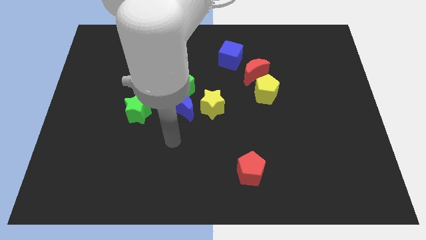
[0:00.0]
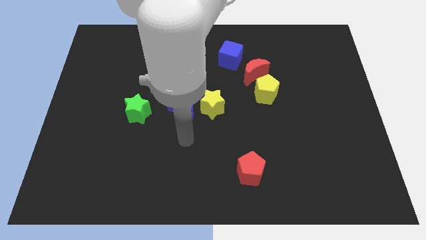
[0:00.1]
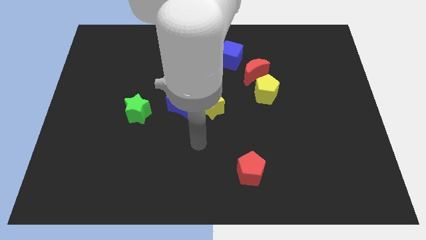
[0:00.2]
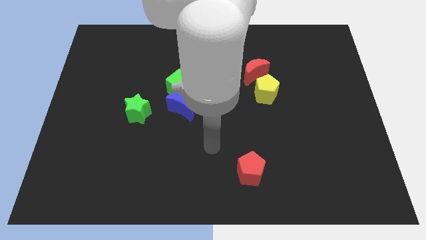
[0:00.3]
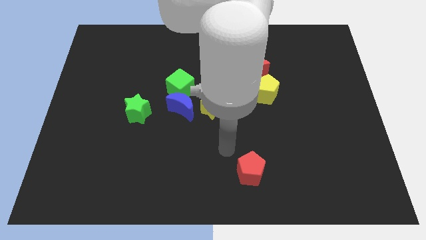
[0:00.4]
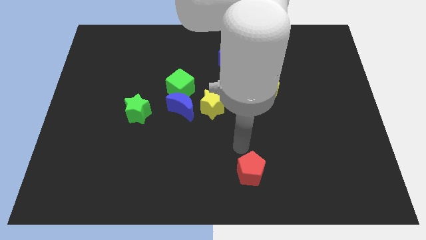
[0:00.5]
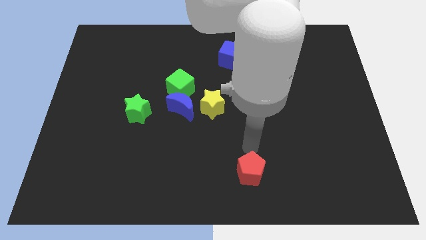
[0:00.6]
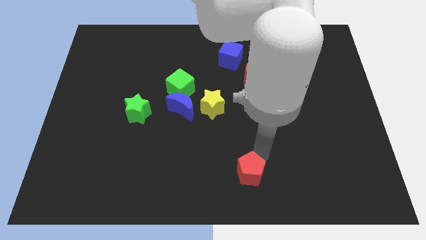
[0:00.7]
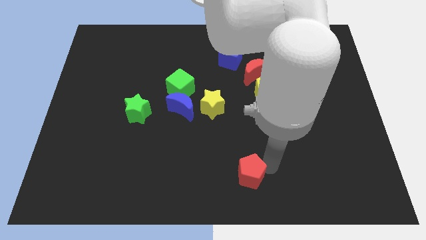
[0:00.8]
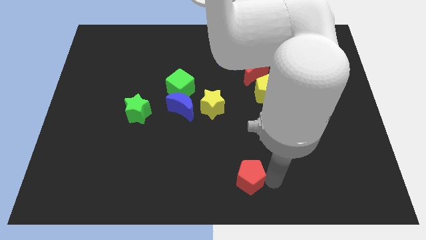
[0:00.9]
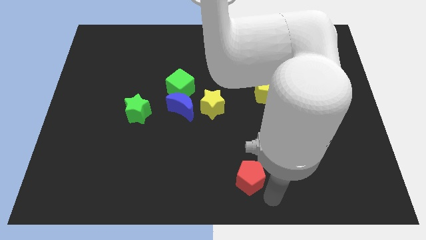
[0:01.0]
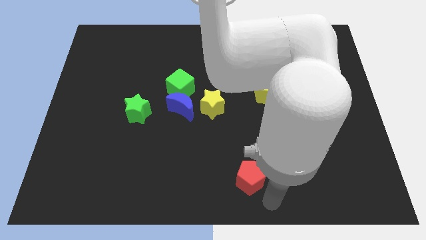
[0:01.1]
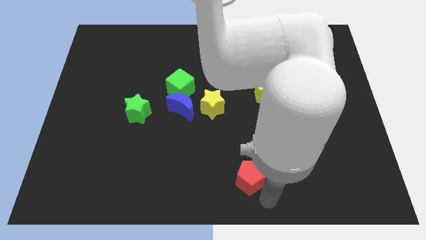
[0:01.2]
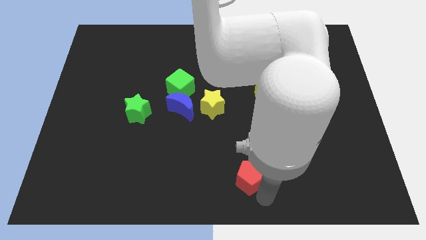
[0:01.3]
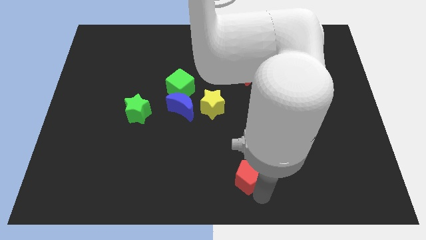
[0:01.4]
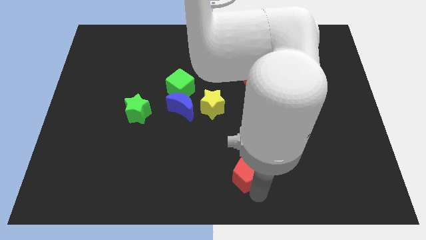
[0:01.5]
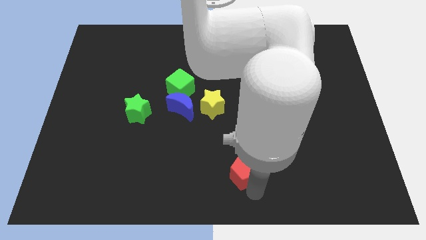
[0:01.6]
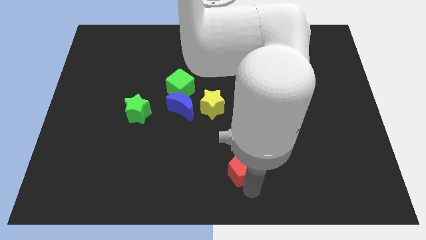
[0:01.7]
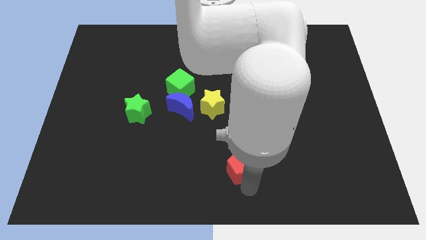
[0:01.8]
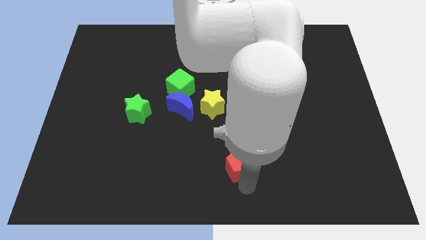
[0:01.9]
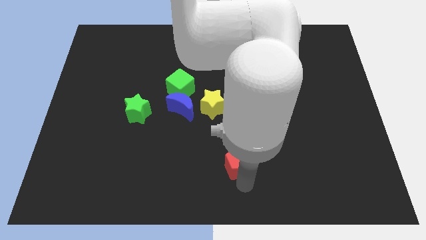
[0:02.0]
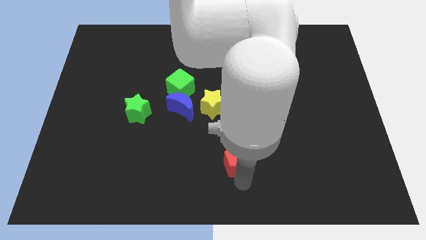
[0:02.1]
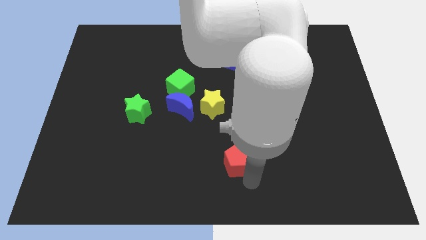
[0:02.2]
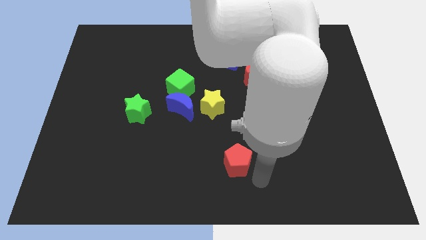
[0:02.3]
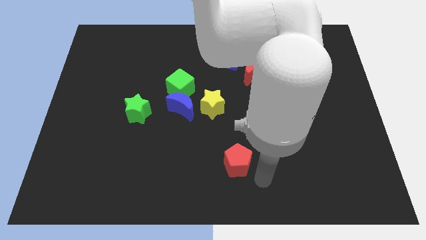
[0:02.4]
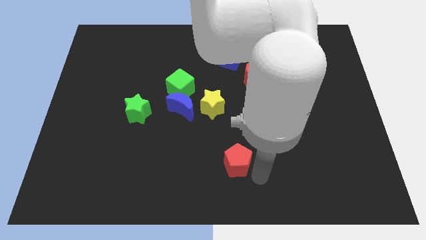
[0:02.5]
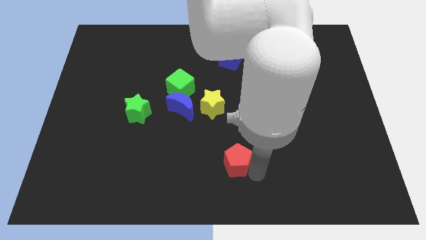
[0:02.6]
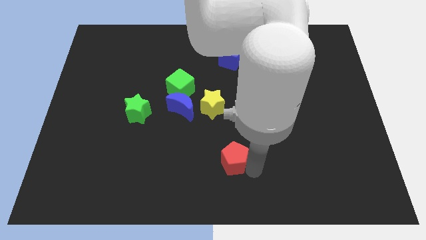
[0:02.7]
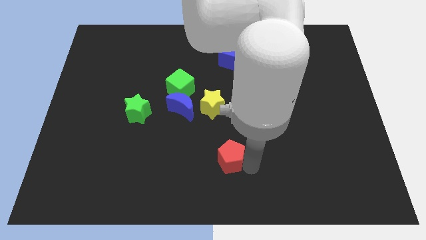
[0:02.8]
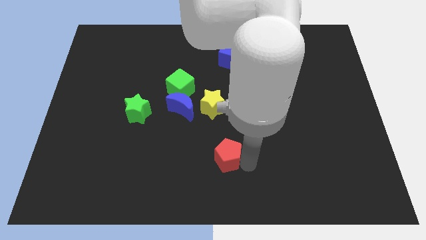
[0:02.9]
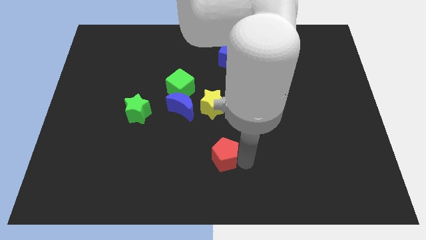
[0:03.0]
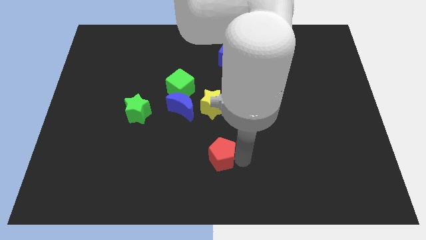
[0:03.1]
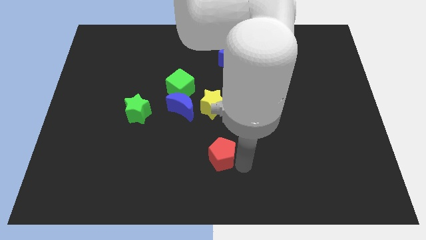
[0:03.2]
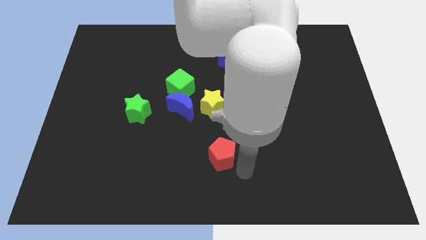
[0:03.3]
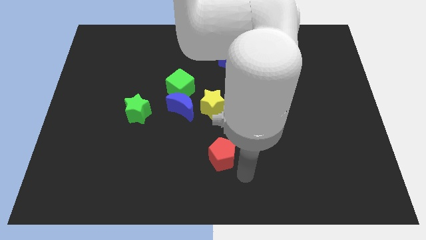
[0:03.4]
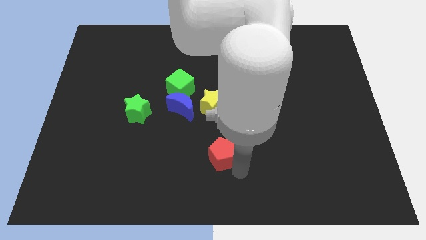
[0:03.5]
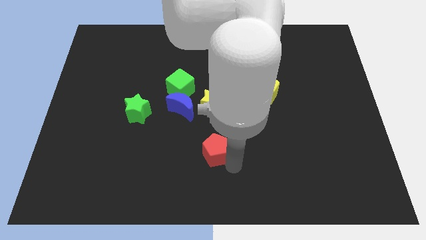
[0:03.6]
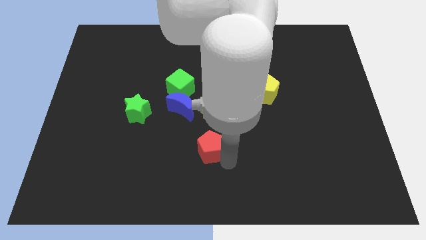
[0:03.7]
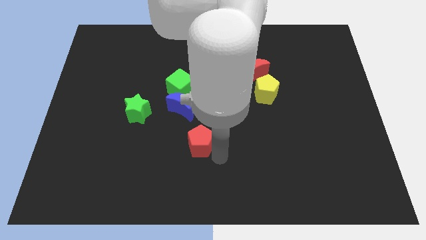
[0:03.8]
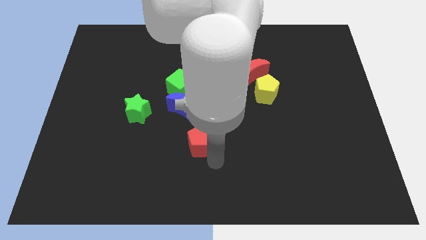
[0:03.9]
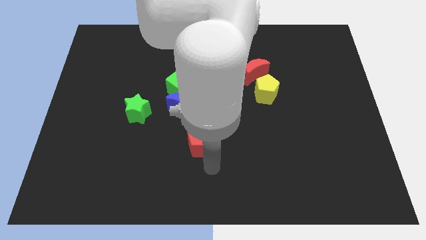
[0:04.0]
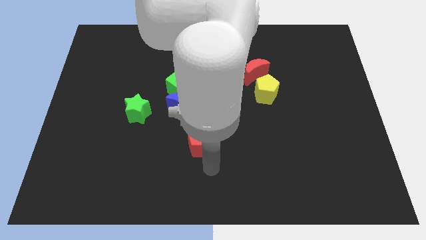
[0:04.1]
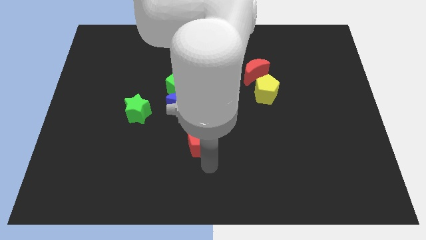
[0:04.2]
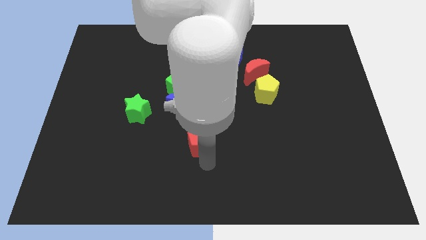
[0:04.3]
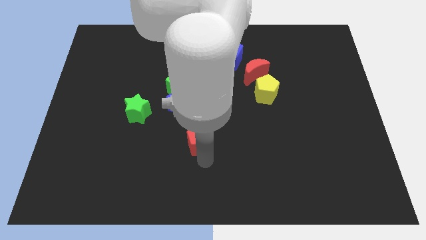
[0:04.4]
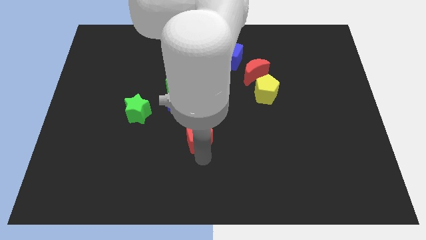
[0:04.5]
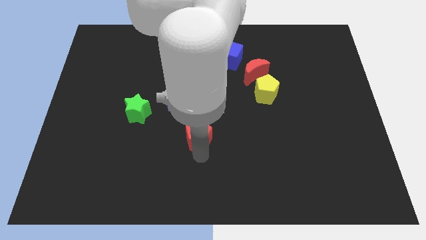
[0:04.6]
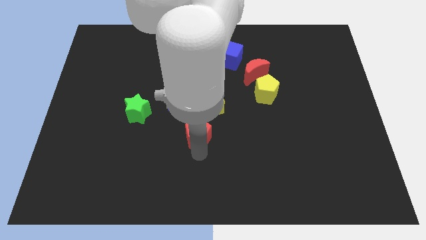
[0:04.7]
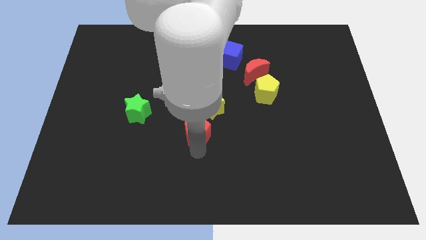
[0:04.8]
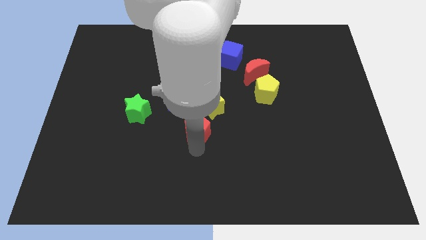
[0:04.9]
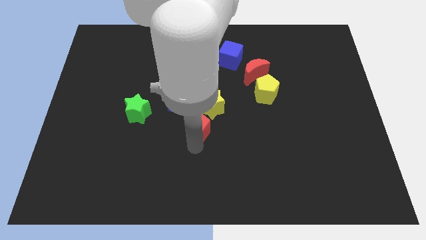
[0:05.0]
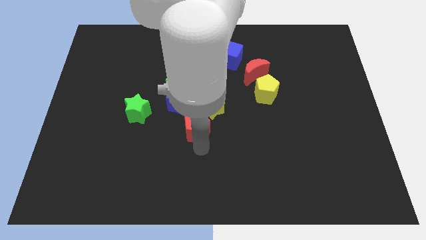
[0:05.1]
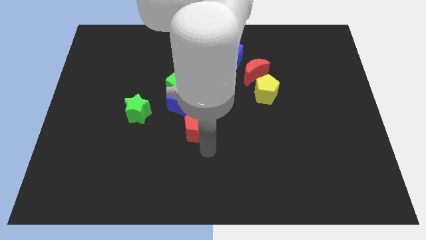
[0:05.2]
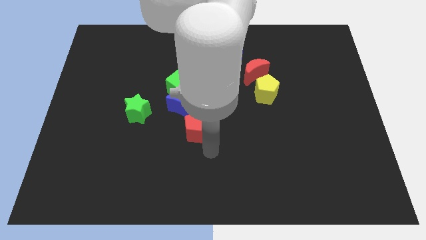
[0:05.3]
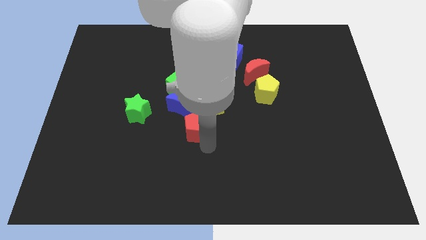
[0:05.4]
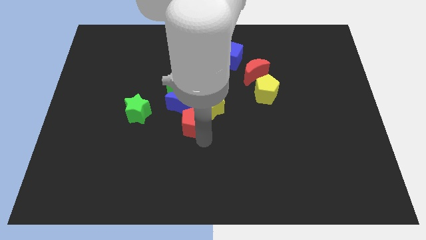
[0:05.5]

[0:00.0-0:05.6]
put the red pentagon close to the blue moon

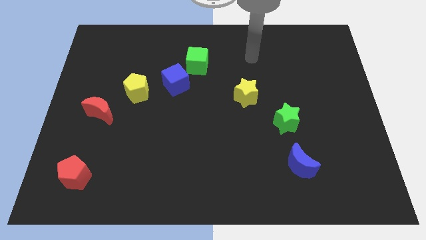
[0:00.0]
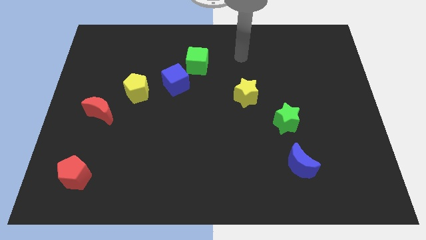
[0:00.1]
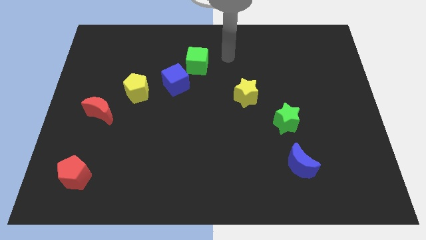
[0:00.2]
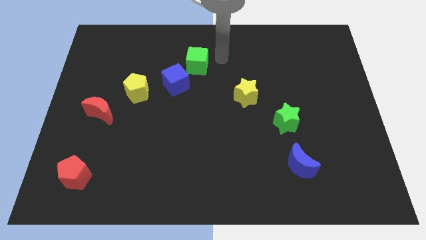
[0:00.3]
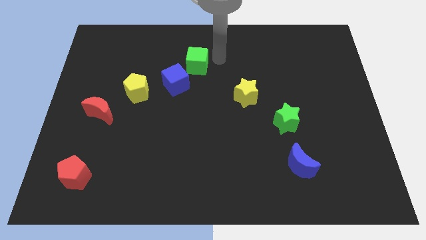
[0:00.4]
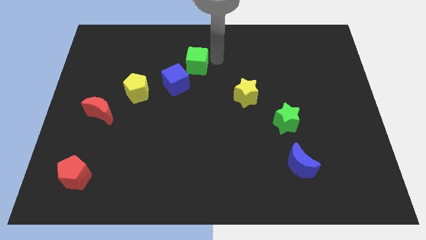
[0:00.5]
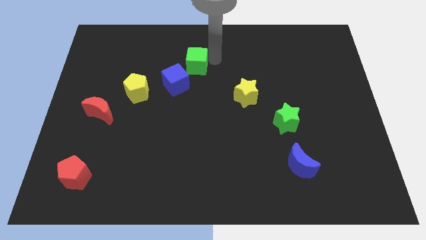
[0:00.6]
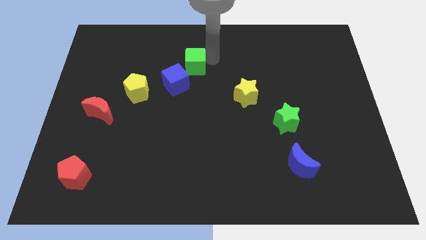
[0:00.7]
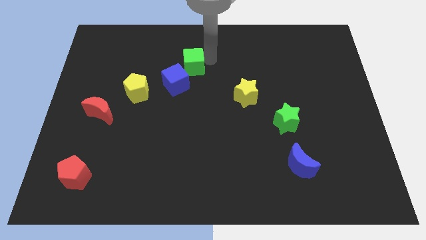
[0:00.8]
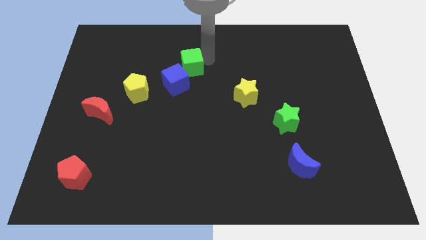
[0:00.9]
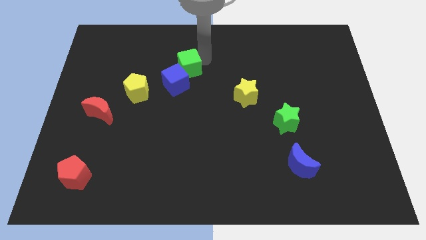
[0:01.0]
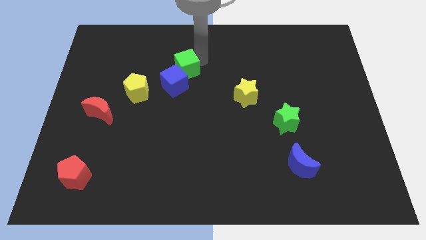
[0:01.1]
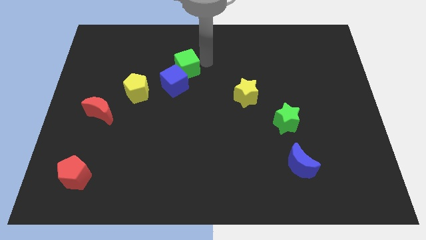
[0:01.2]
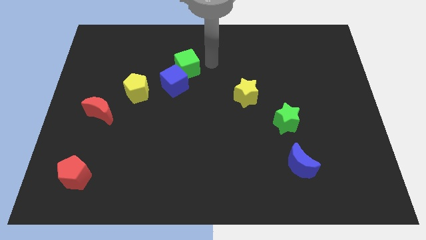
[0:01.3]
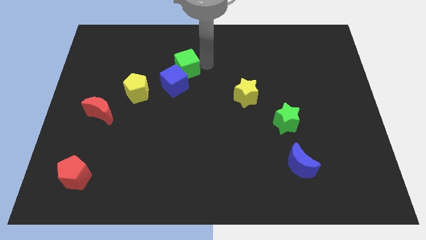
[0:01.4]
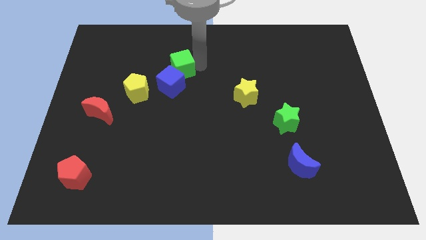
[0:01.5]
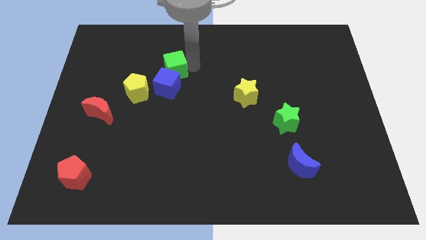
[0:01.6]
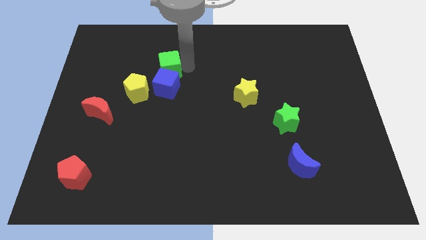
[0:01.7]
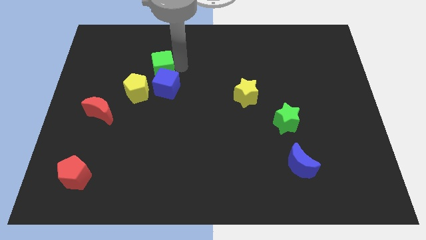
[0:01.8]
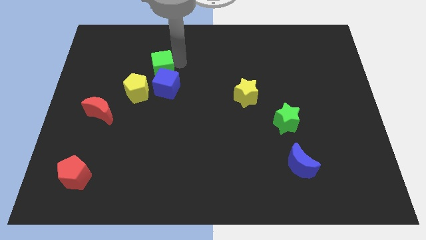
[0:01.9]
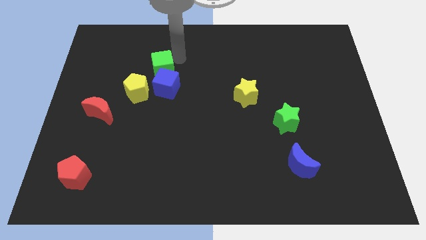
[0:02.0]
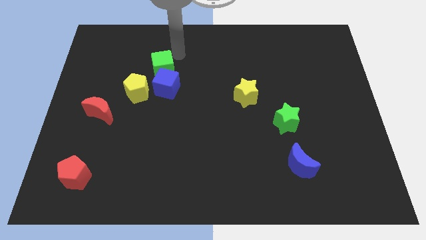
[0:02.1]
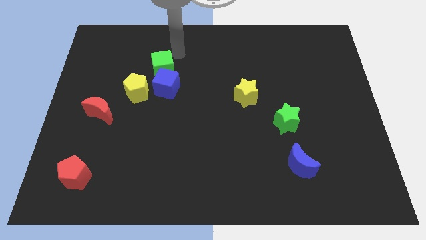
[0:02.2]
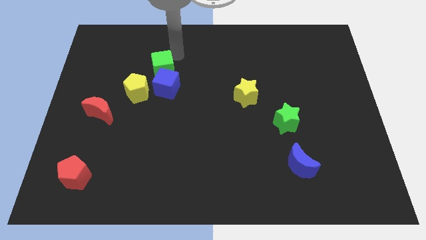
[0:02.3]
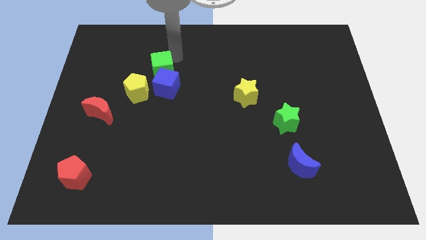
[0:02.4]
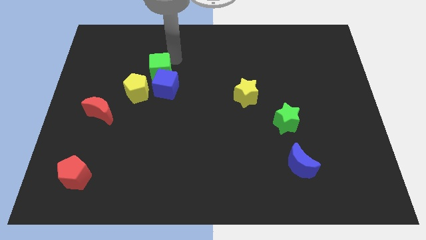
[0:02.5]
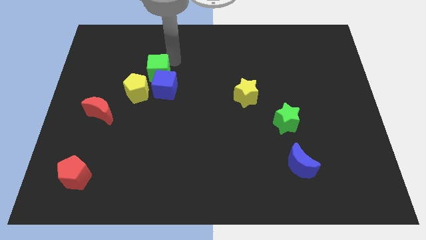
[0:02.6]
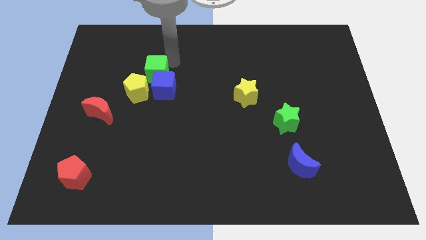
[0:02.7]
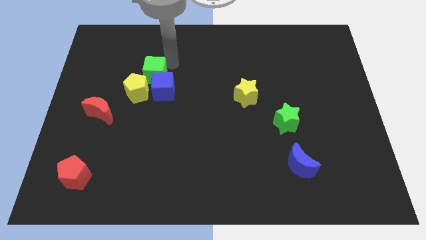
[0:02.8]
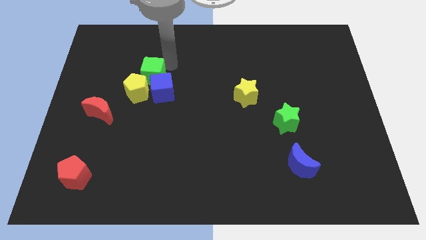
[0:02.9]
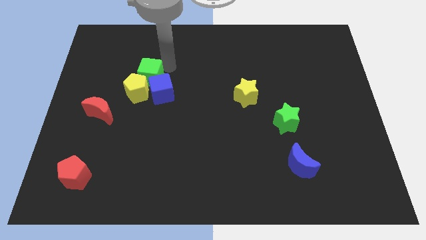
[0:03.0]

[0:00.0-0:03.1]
push the green cube next to the yellow pentagon
